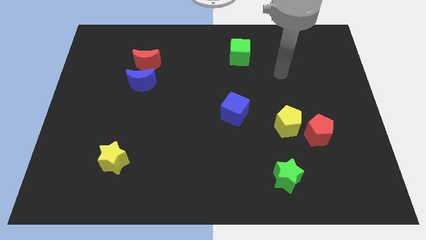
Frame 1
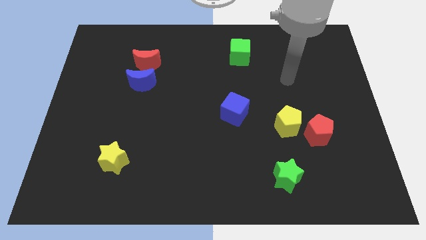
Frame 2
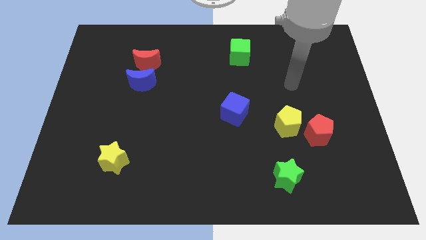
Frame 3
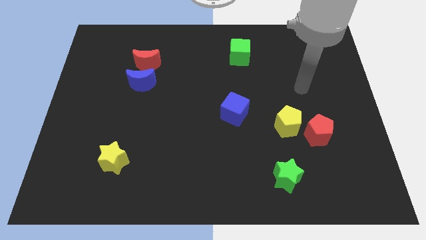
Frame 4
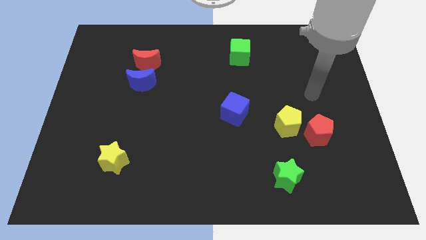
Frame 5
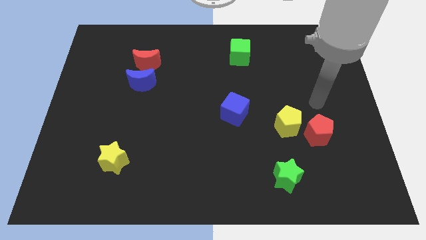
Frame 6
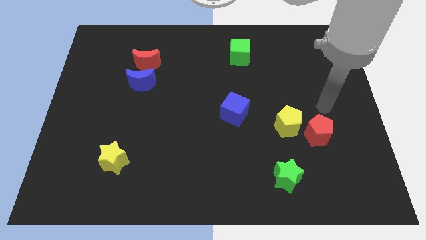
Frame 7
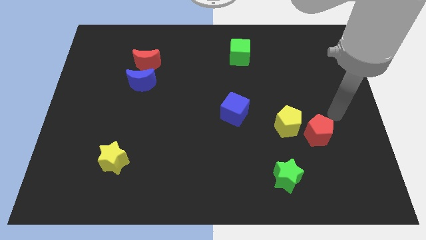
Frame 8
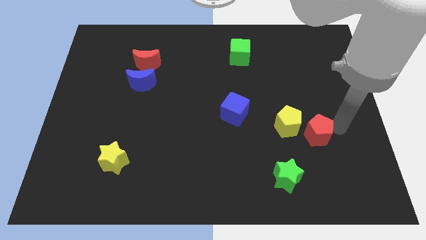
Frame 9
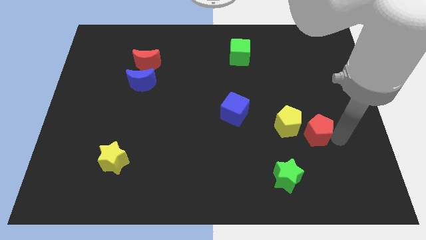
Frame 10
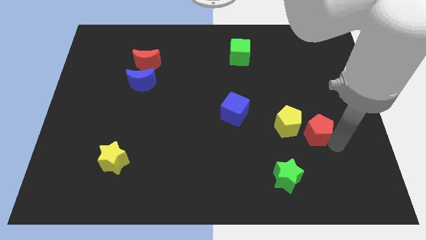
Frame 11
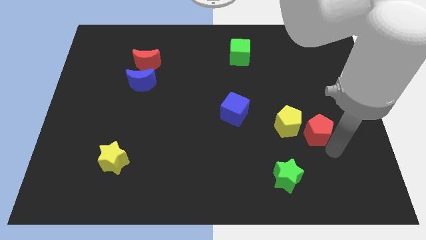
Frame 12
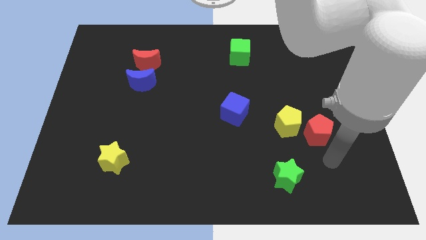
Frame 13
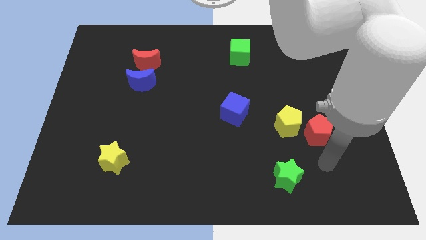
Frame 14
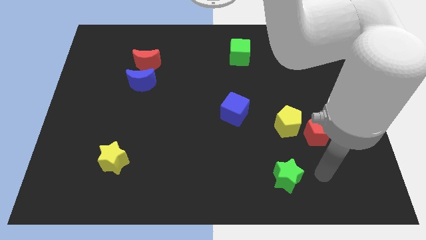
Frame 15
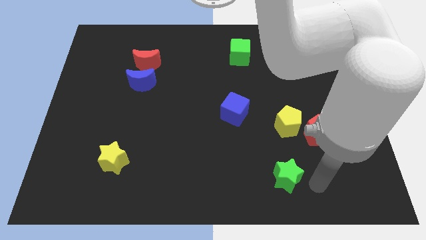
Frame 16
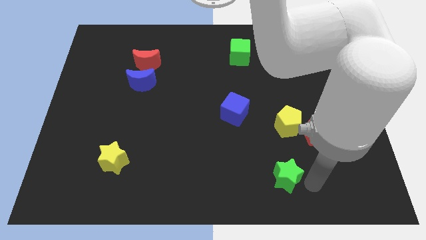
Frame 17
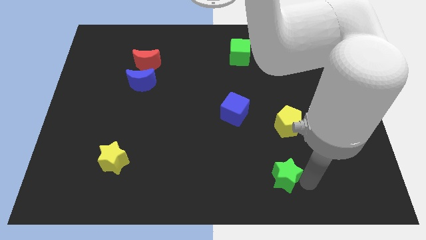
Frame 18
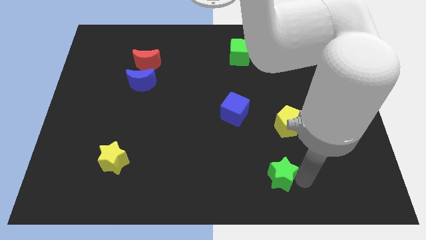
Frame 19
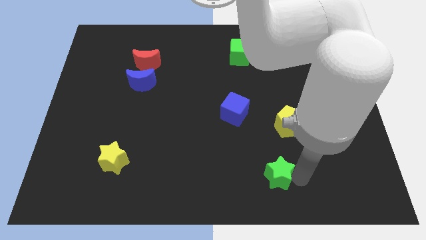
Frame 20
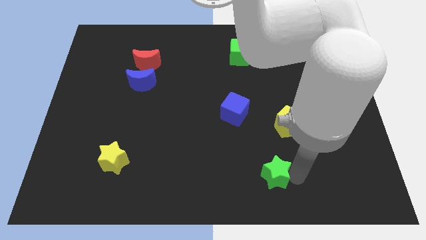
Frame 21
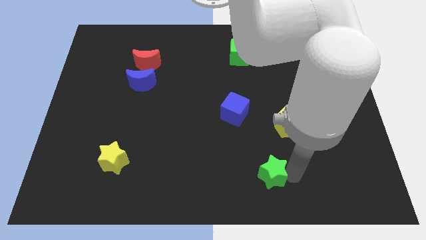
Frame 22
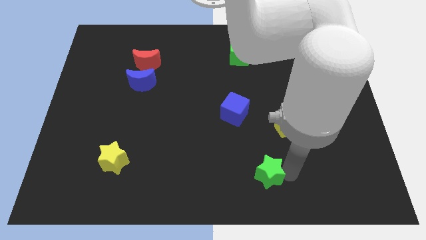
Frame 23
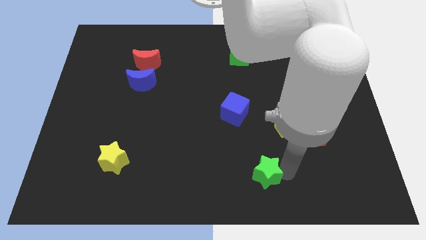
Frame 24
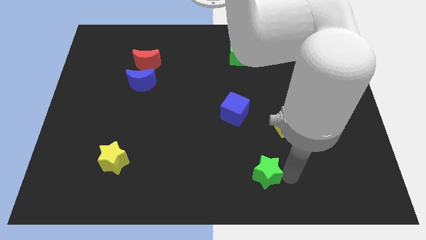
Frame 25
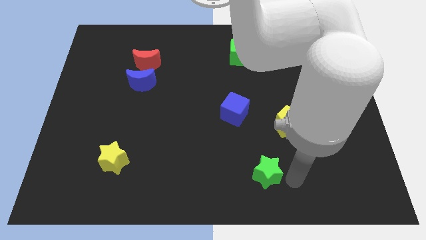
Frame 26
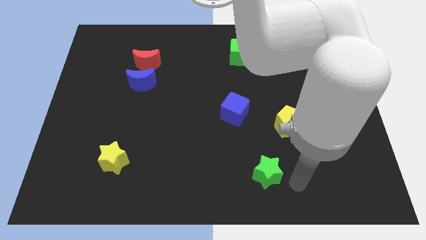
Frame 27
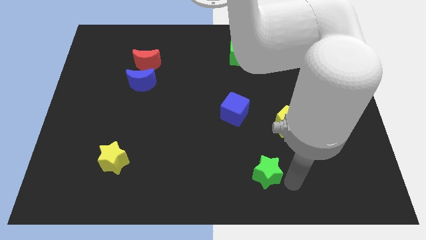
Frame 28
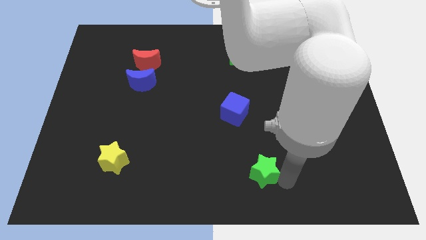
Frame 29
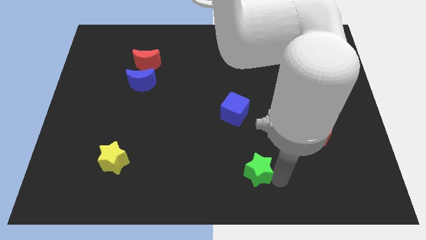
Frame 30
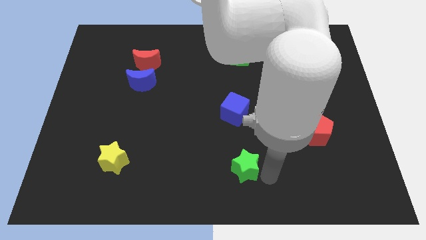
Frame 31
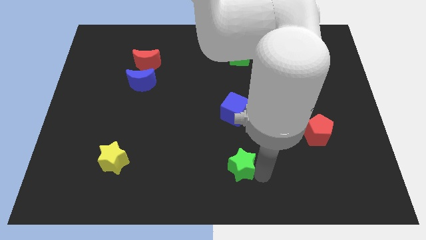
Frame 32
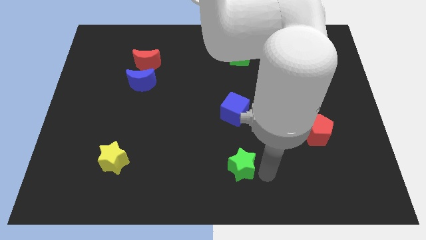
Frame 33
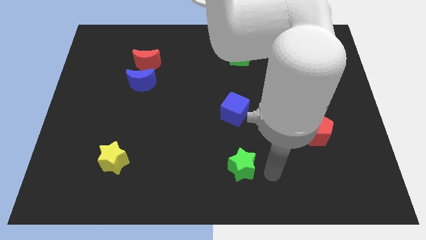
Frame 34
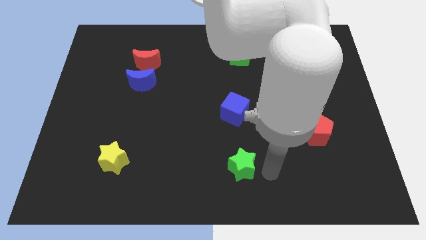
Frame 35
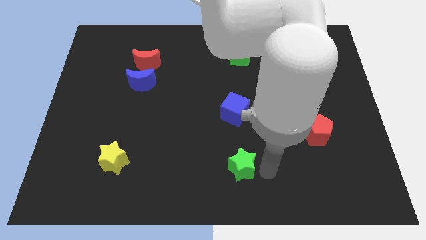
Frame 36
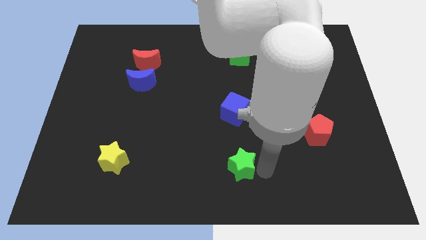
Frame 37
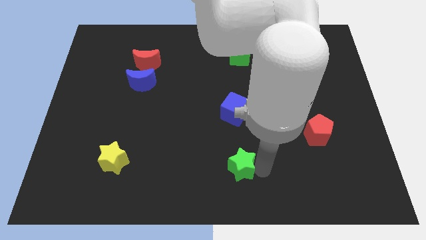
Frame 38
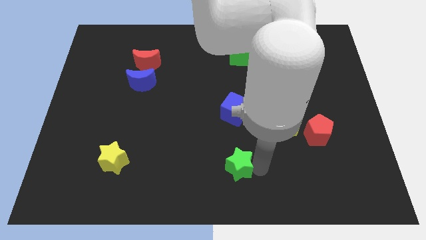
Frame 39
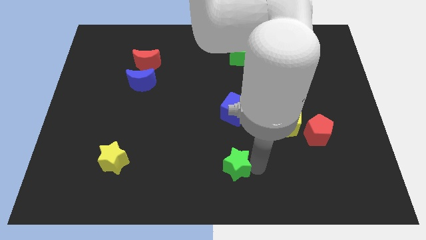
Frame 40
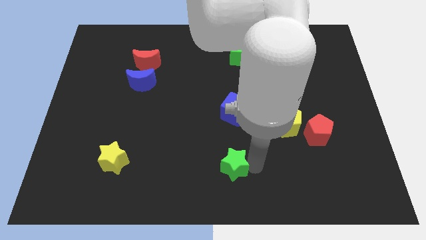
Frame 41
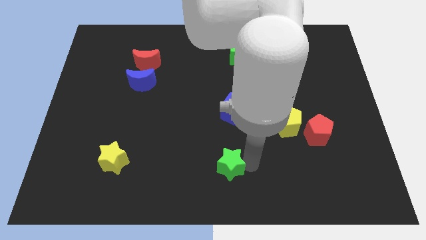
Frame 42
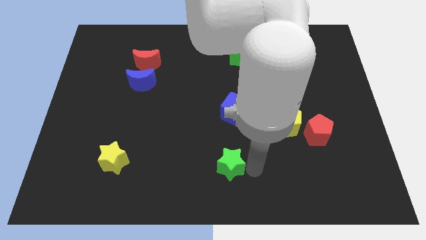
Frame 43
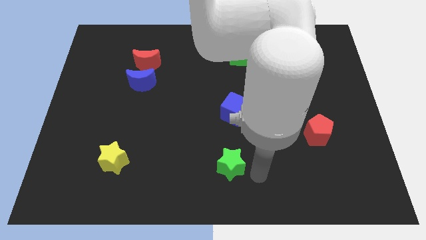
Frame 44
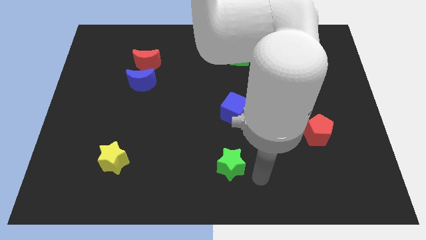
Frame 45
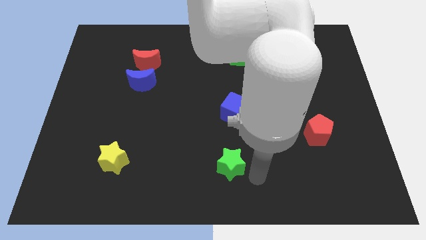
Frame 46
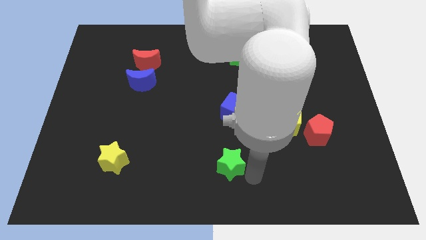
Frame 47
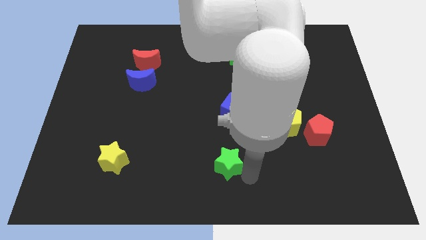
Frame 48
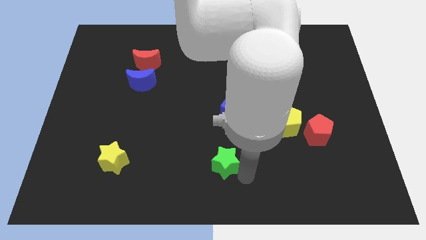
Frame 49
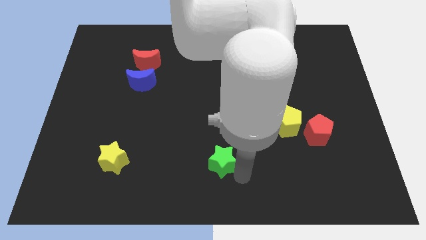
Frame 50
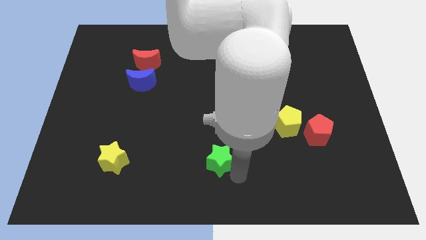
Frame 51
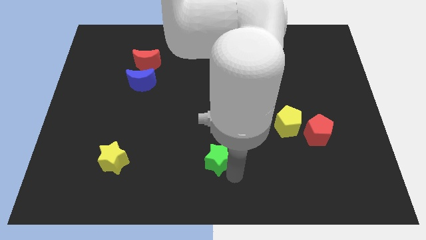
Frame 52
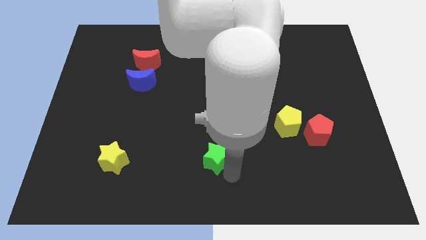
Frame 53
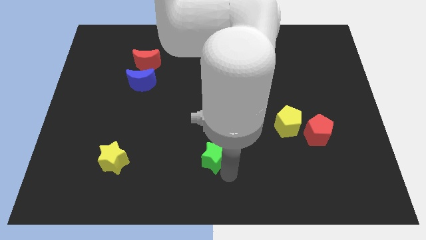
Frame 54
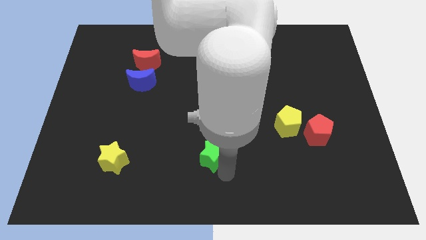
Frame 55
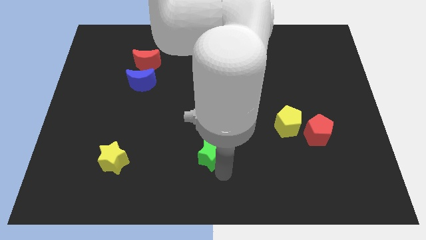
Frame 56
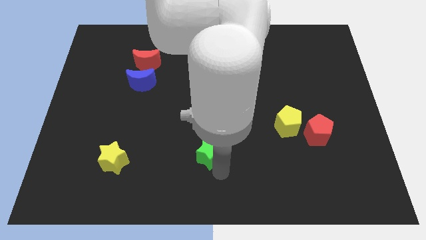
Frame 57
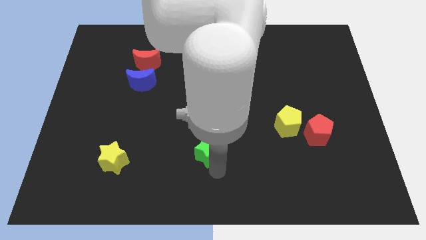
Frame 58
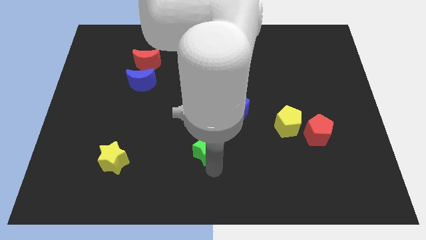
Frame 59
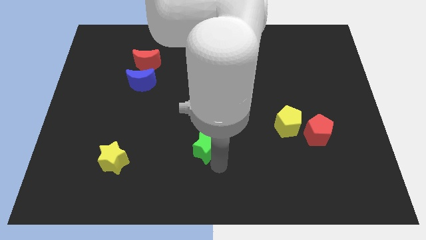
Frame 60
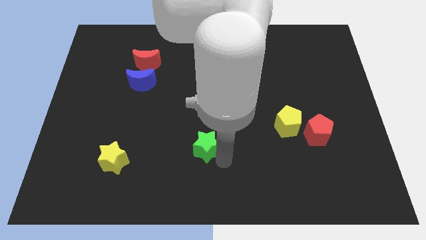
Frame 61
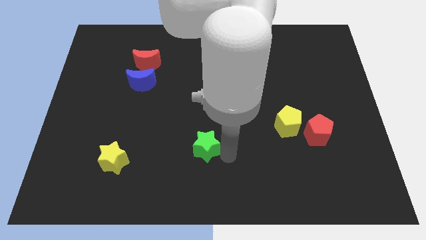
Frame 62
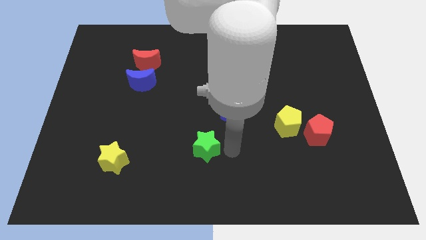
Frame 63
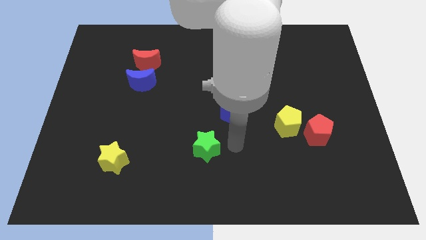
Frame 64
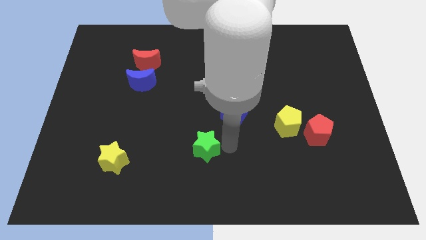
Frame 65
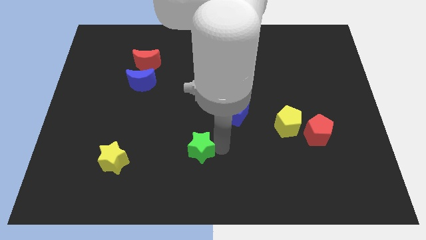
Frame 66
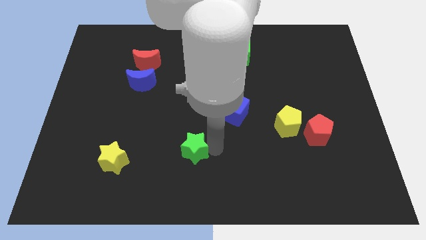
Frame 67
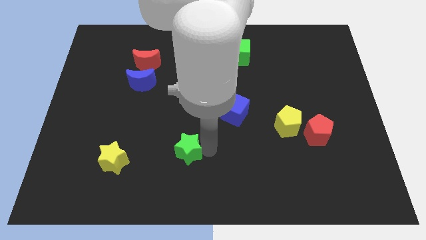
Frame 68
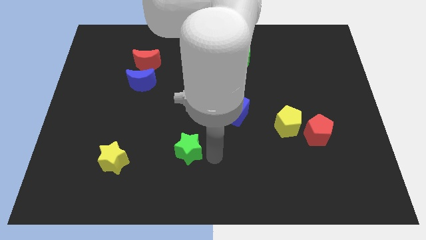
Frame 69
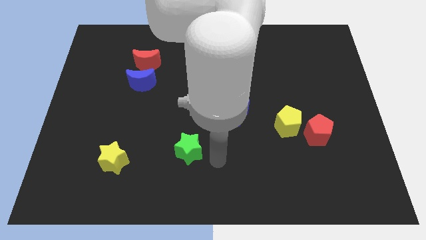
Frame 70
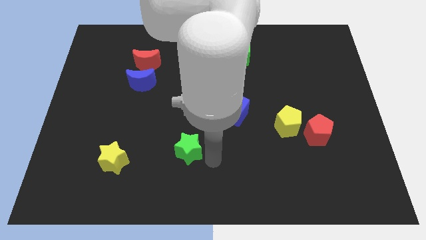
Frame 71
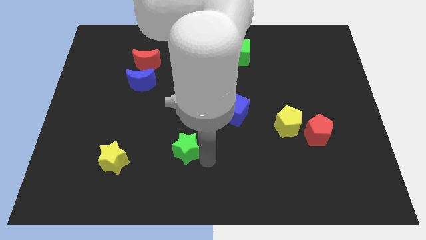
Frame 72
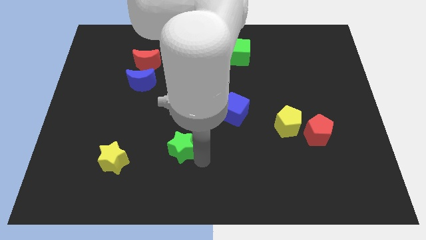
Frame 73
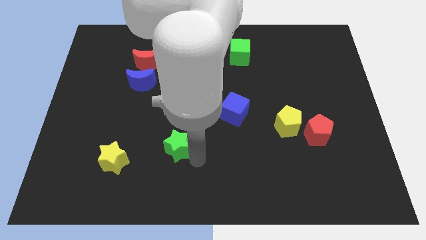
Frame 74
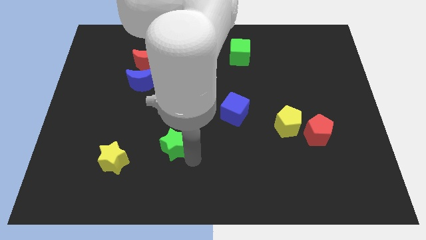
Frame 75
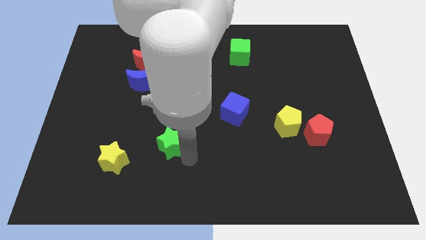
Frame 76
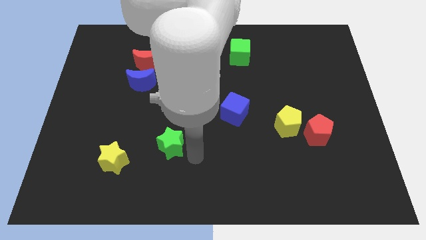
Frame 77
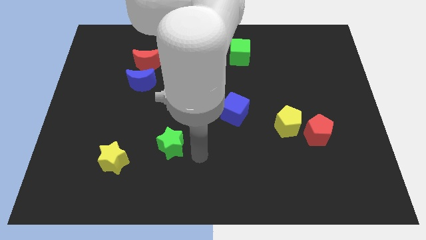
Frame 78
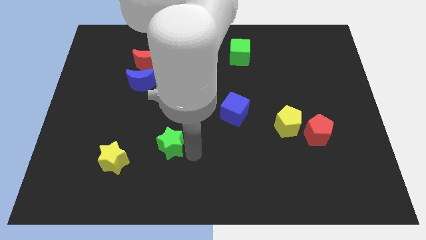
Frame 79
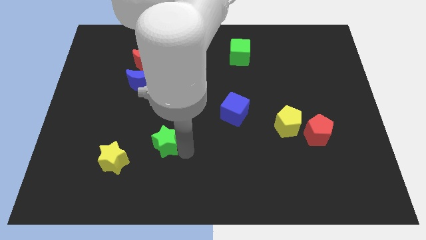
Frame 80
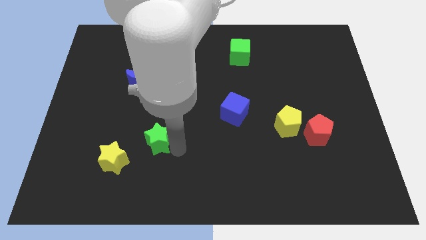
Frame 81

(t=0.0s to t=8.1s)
slide the green star diagonally up and to the right of the yellow star
